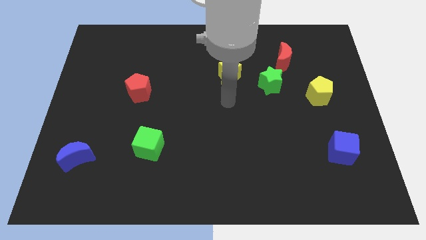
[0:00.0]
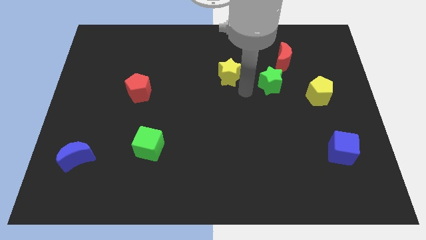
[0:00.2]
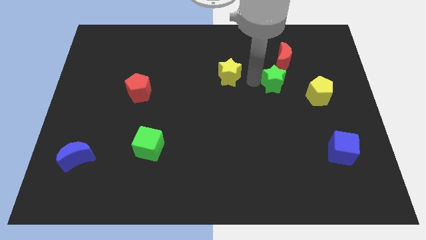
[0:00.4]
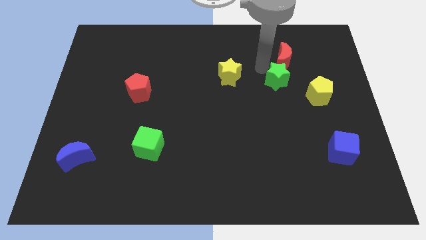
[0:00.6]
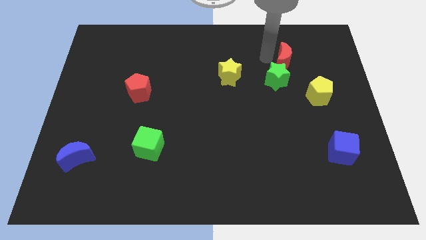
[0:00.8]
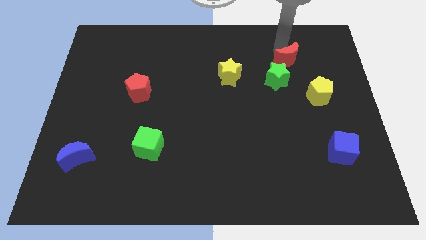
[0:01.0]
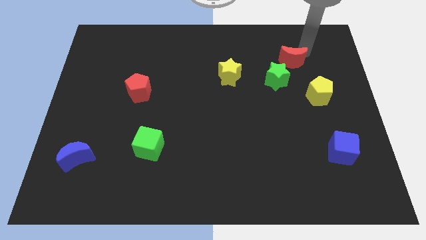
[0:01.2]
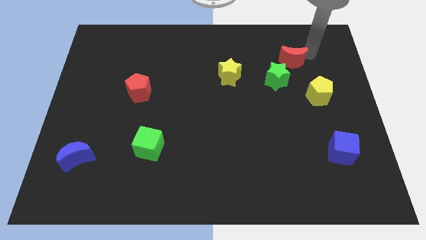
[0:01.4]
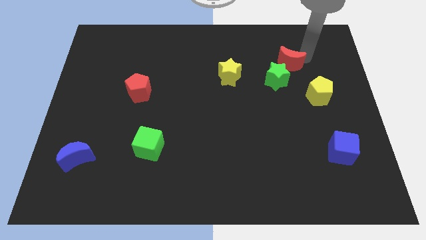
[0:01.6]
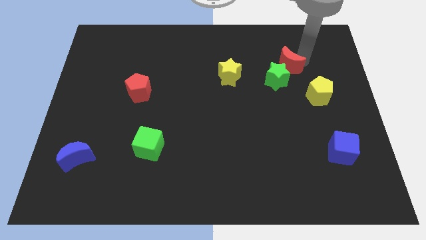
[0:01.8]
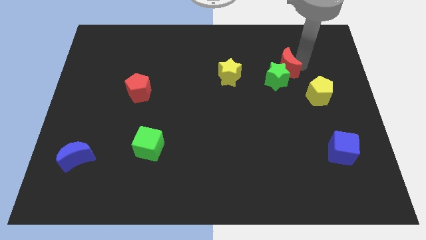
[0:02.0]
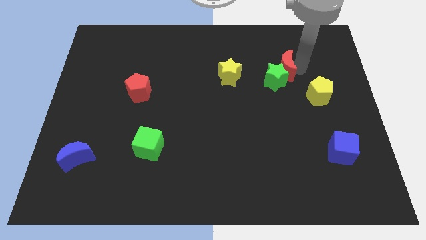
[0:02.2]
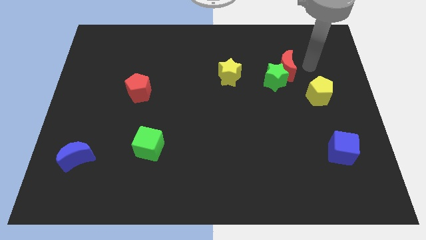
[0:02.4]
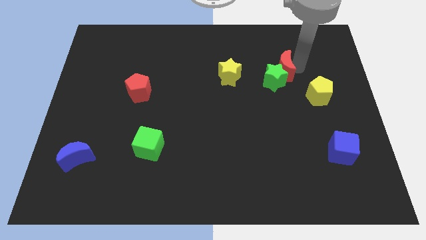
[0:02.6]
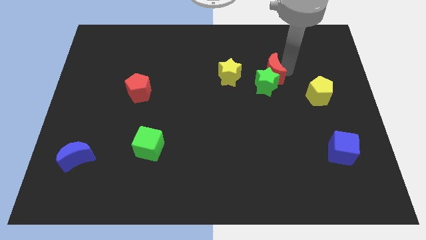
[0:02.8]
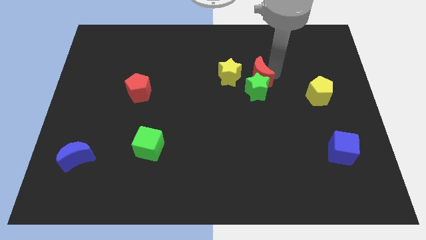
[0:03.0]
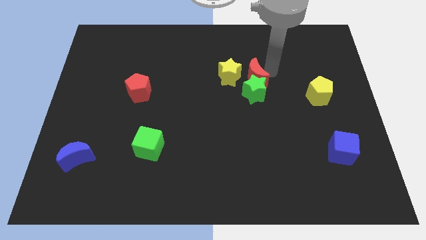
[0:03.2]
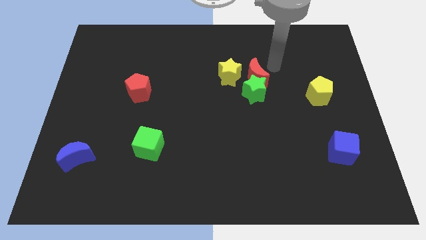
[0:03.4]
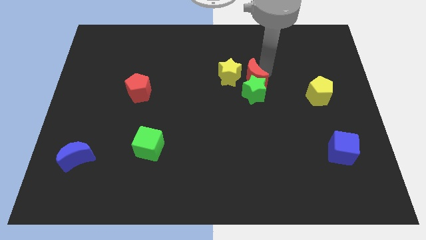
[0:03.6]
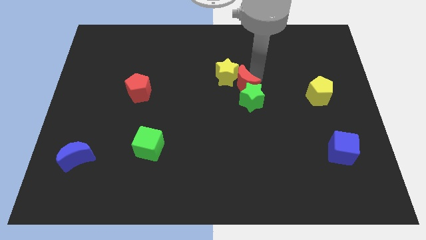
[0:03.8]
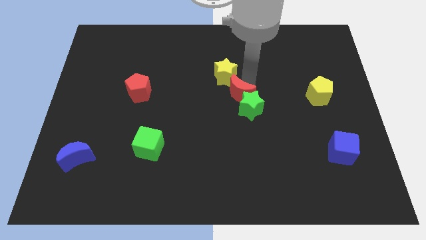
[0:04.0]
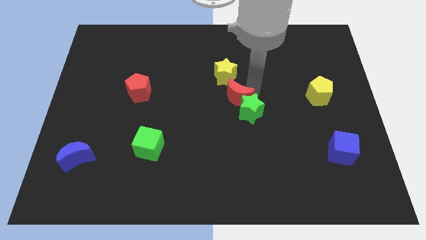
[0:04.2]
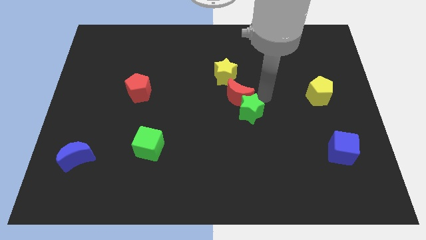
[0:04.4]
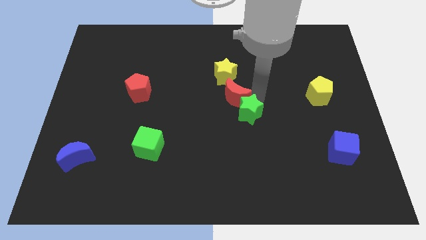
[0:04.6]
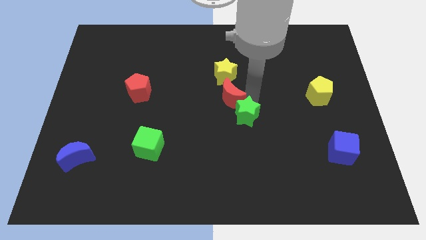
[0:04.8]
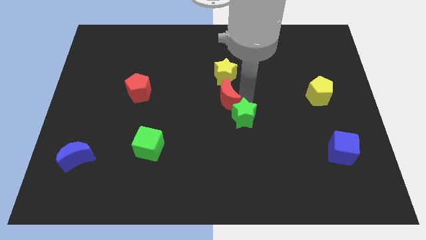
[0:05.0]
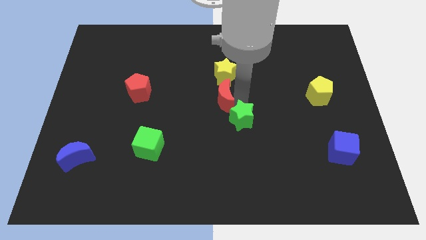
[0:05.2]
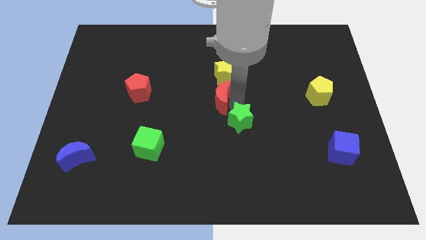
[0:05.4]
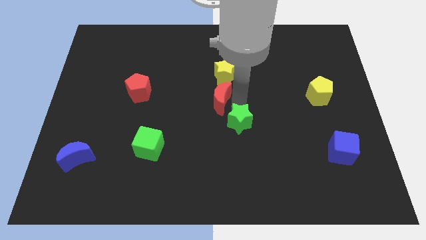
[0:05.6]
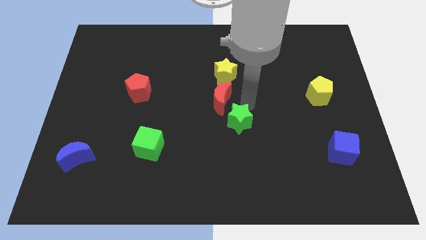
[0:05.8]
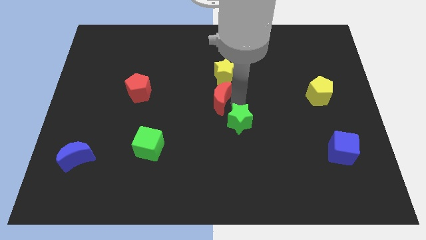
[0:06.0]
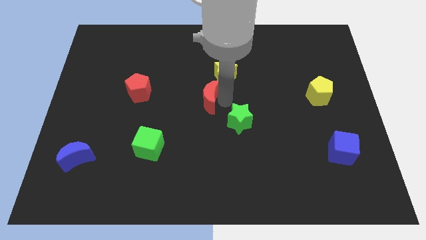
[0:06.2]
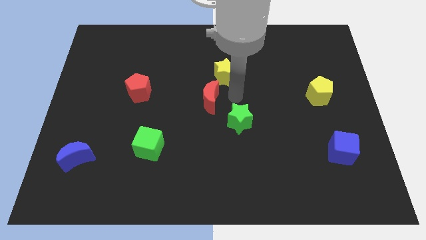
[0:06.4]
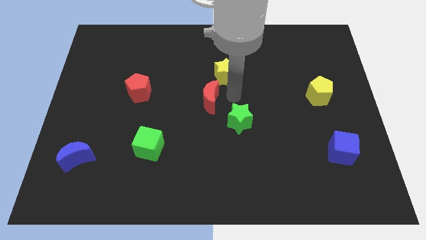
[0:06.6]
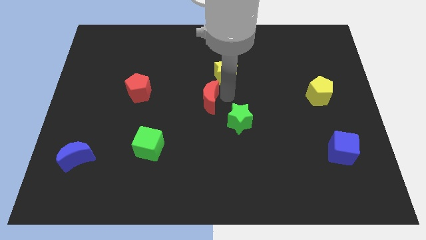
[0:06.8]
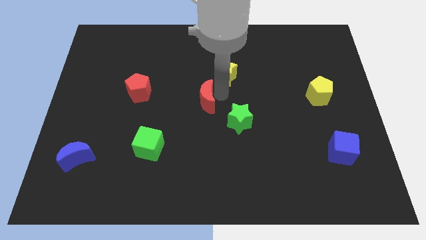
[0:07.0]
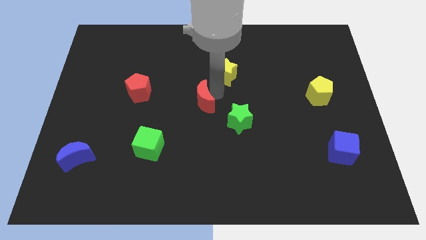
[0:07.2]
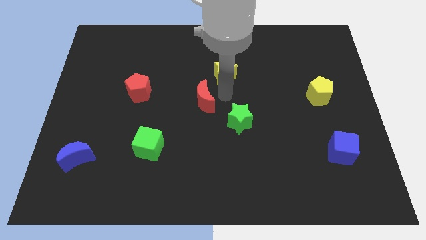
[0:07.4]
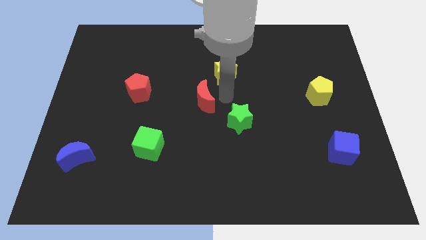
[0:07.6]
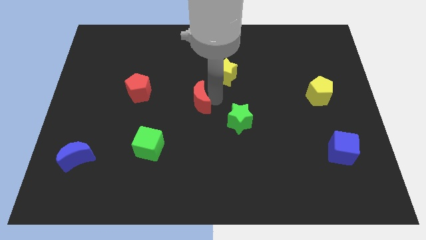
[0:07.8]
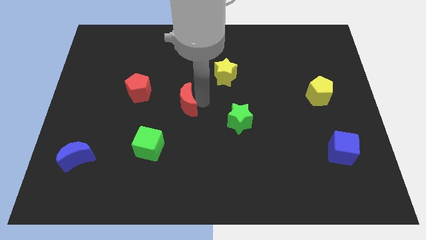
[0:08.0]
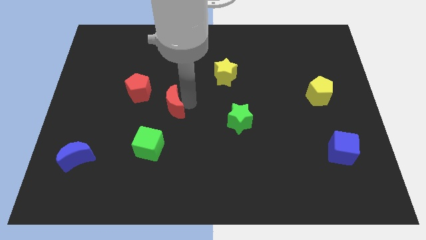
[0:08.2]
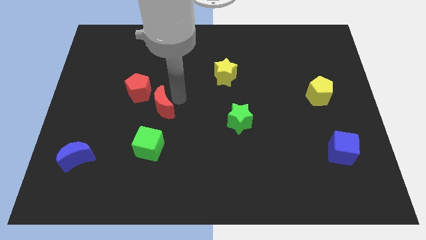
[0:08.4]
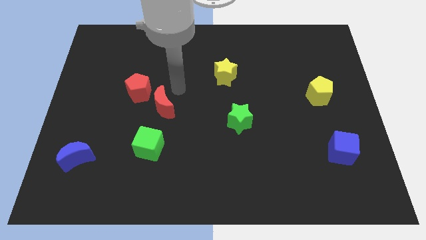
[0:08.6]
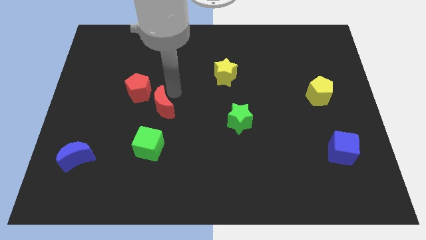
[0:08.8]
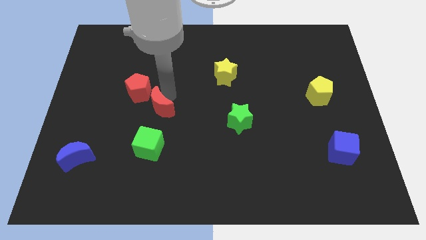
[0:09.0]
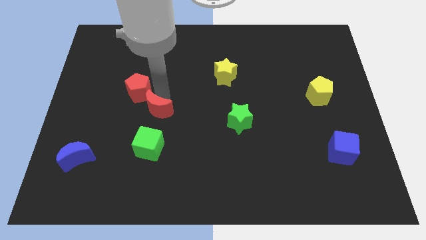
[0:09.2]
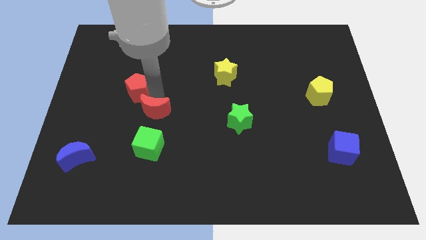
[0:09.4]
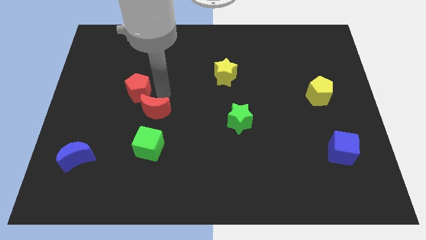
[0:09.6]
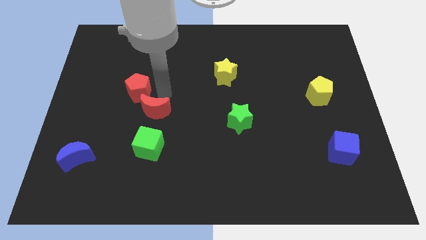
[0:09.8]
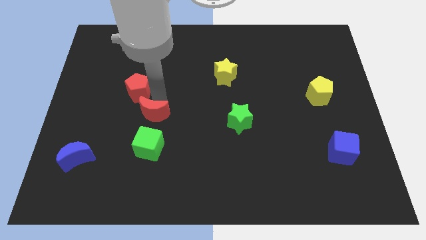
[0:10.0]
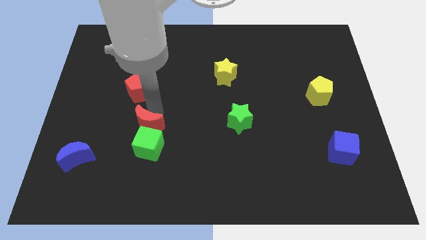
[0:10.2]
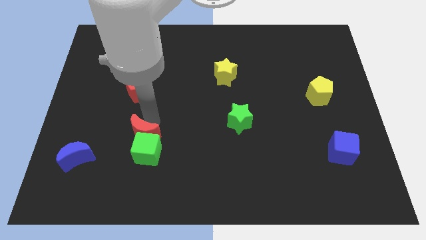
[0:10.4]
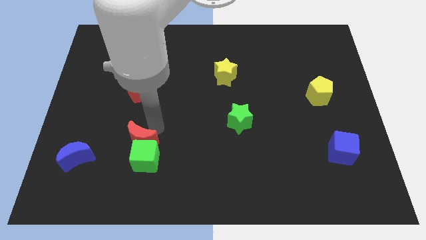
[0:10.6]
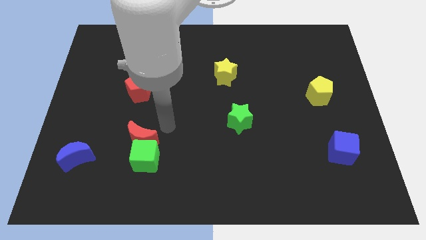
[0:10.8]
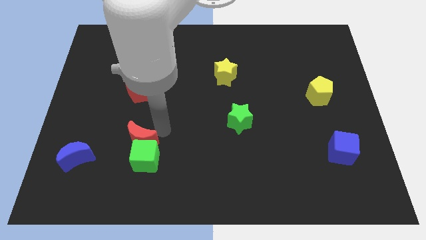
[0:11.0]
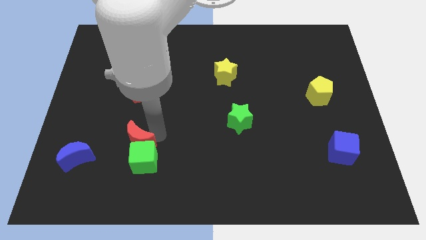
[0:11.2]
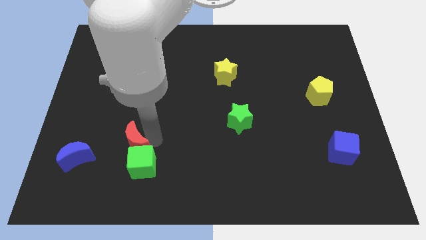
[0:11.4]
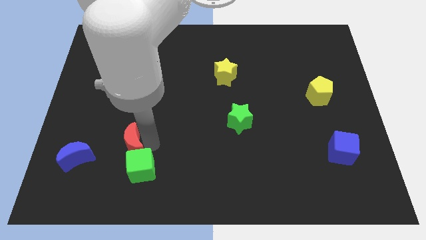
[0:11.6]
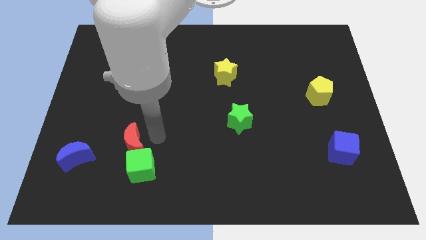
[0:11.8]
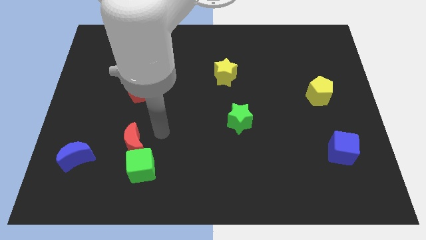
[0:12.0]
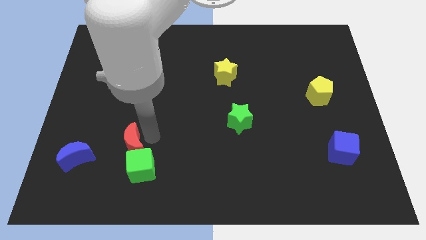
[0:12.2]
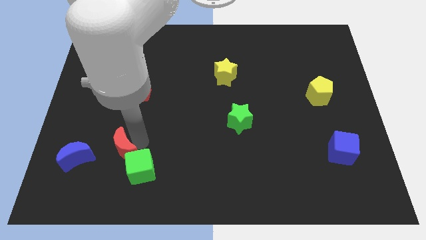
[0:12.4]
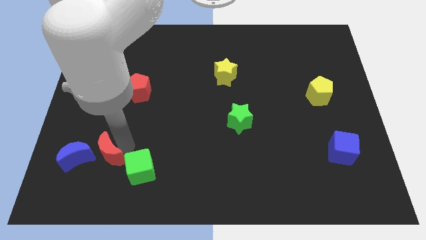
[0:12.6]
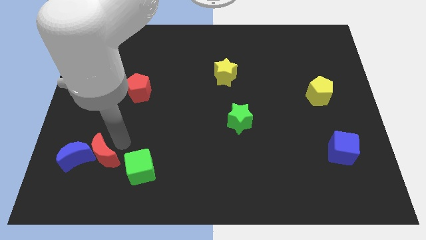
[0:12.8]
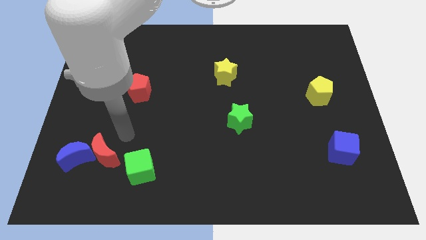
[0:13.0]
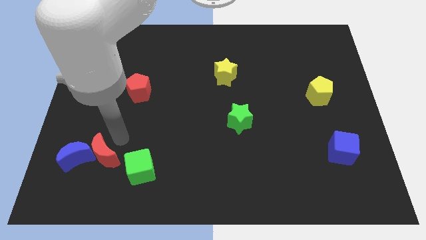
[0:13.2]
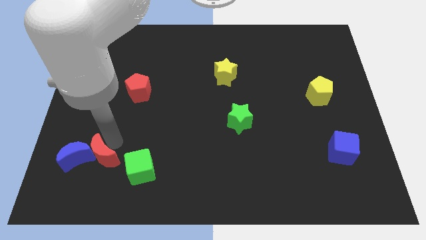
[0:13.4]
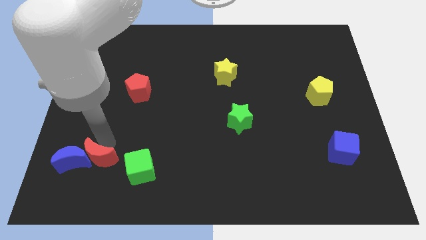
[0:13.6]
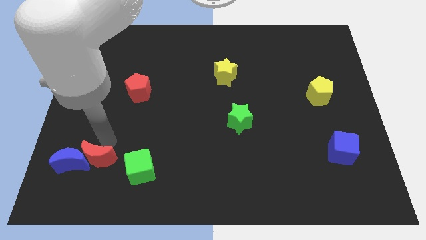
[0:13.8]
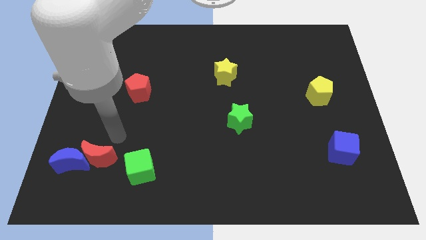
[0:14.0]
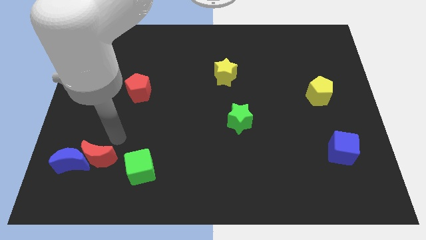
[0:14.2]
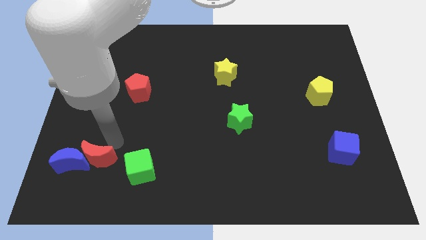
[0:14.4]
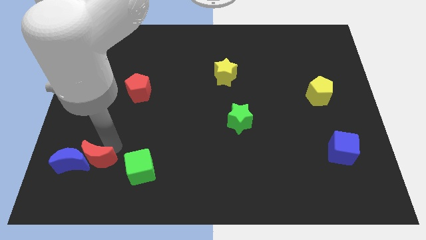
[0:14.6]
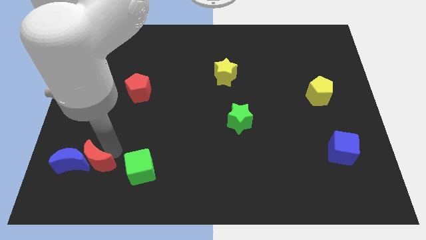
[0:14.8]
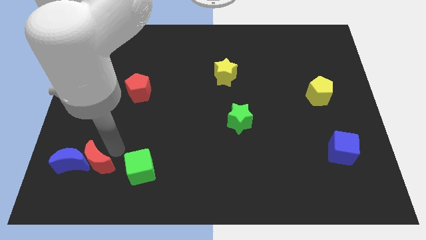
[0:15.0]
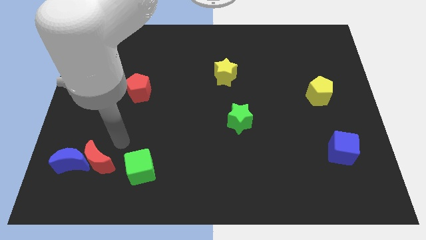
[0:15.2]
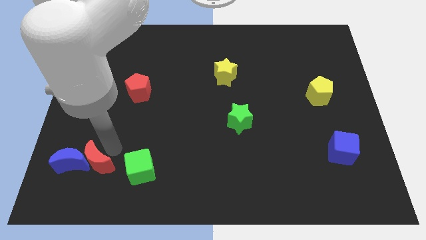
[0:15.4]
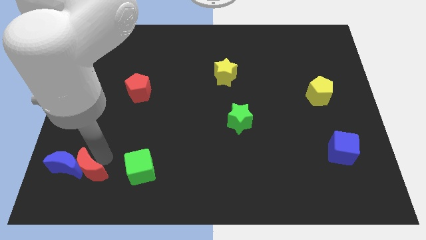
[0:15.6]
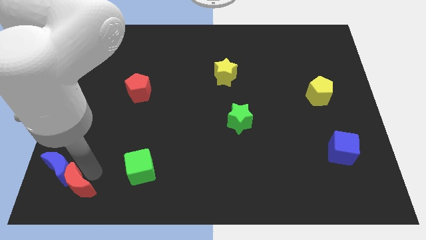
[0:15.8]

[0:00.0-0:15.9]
slide the red moon to the lower left corner
